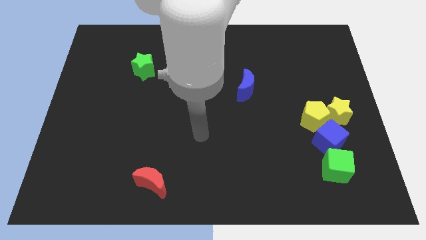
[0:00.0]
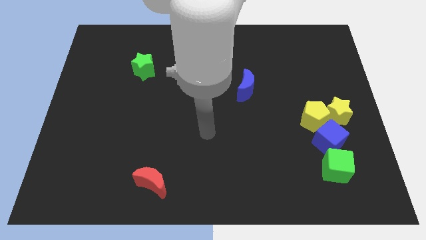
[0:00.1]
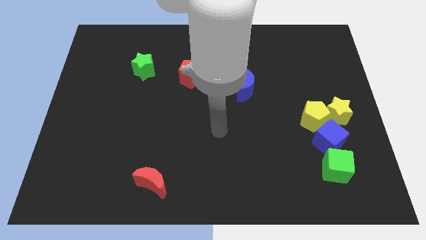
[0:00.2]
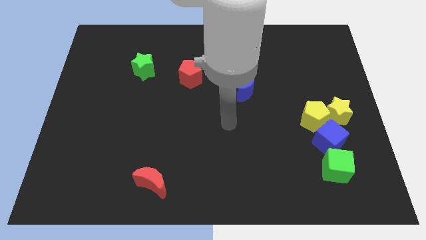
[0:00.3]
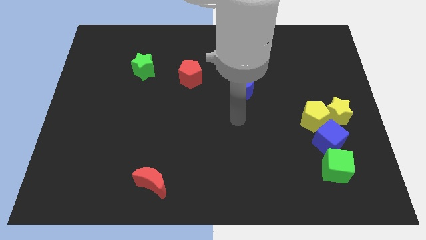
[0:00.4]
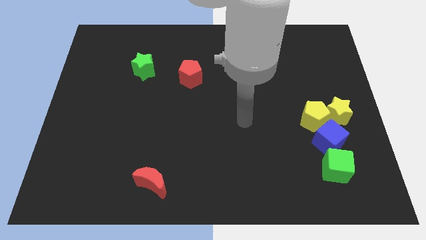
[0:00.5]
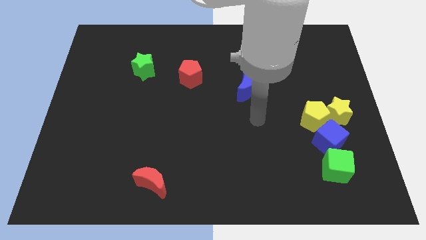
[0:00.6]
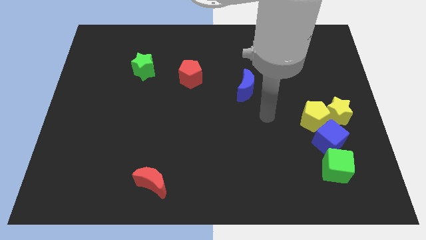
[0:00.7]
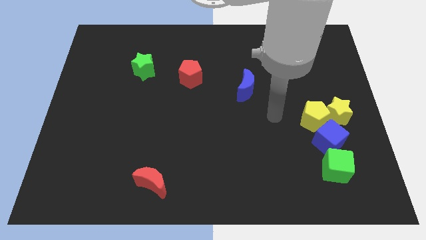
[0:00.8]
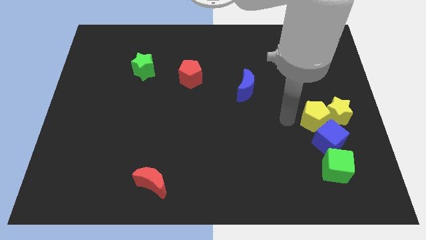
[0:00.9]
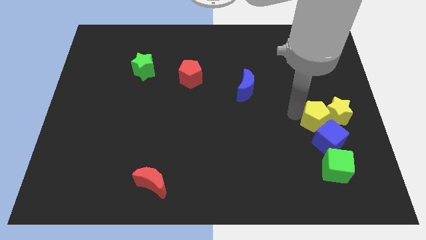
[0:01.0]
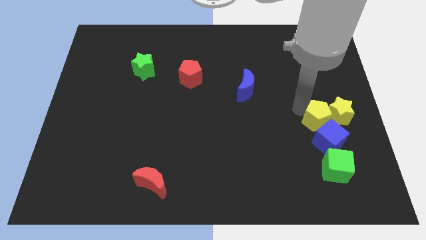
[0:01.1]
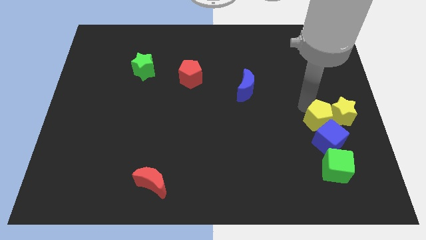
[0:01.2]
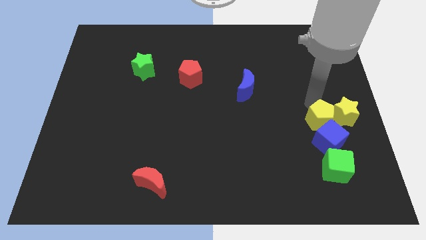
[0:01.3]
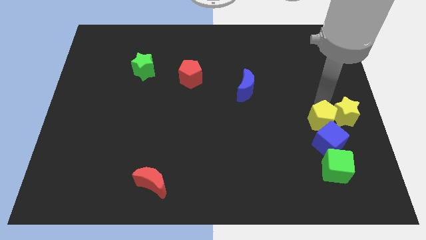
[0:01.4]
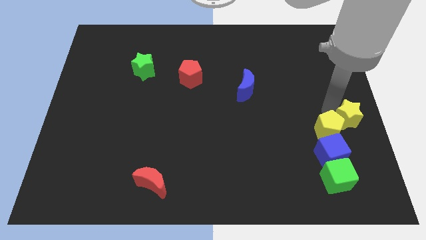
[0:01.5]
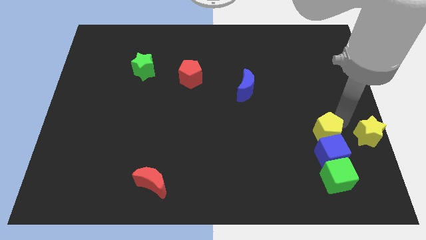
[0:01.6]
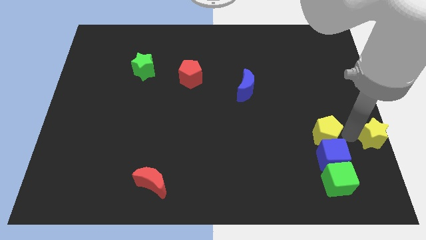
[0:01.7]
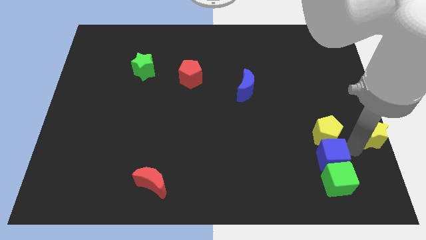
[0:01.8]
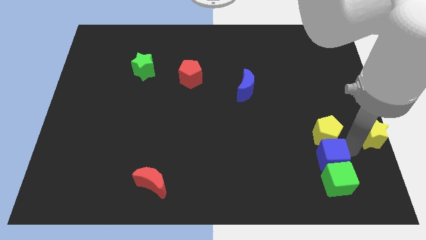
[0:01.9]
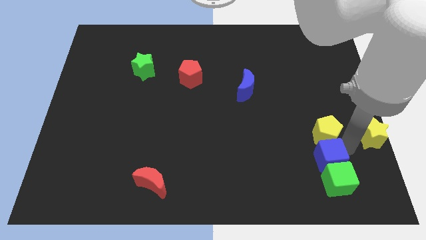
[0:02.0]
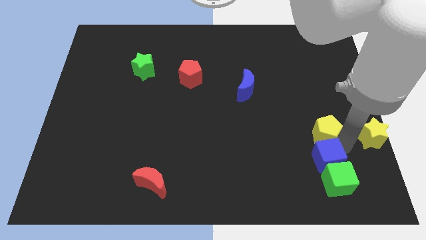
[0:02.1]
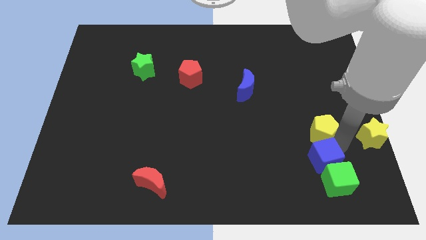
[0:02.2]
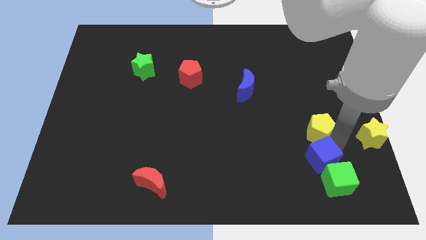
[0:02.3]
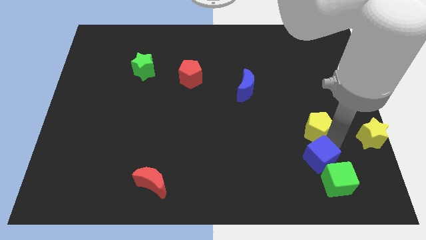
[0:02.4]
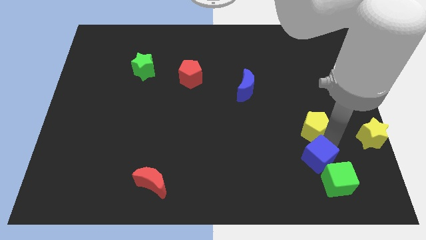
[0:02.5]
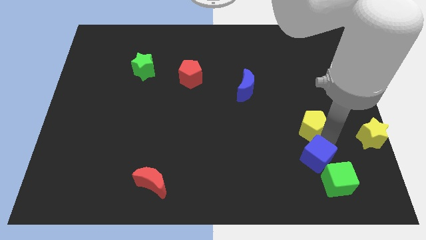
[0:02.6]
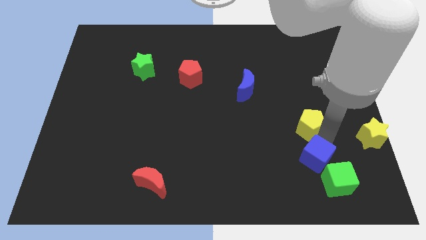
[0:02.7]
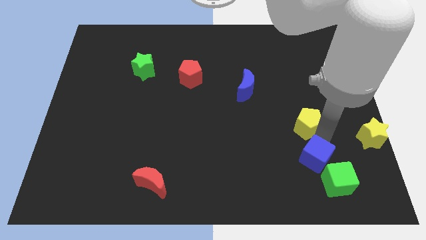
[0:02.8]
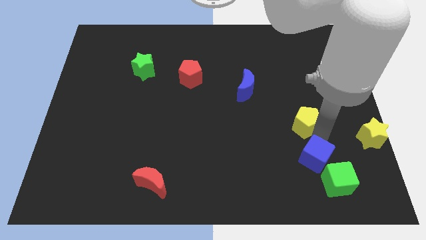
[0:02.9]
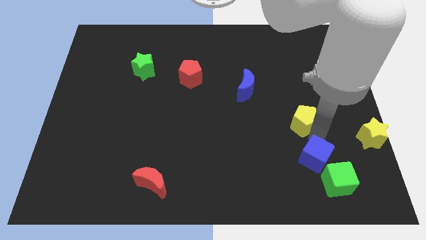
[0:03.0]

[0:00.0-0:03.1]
pull the yellow pentagon apart from the yellow star and blue cube

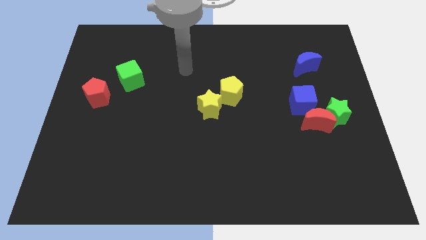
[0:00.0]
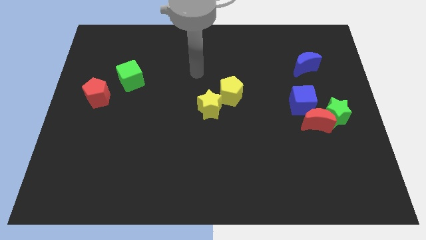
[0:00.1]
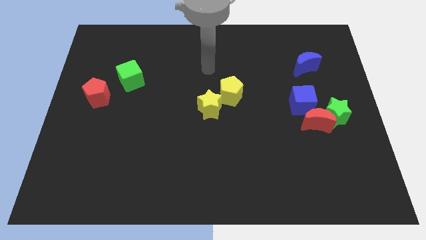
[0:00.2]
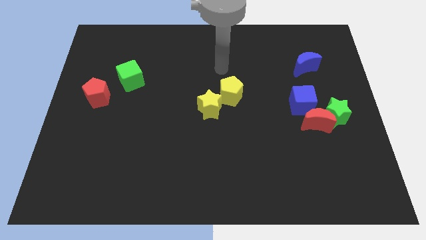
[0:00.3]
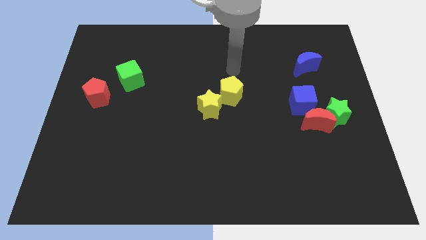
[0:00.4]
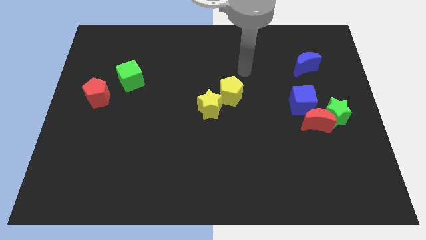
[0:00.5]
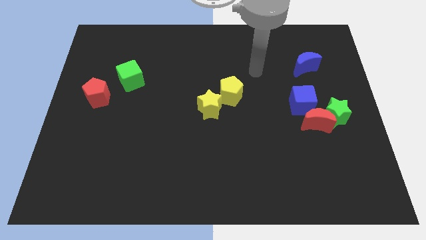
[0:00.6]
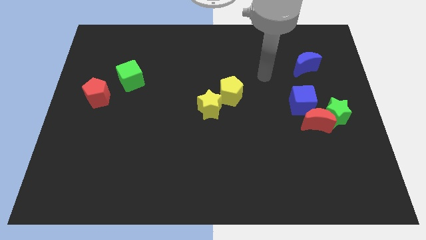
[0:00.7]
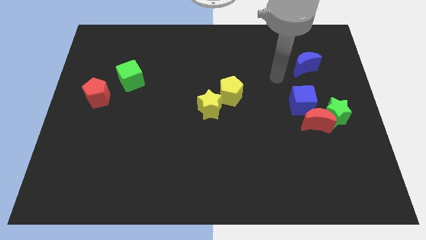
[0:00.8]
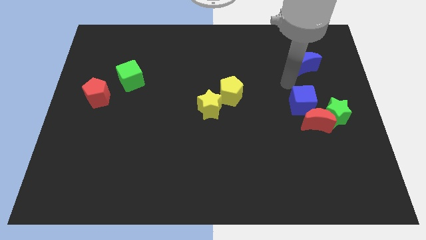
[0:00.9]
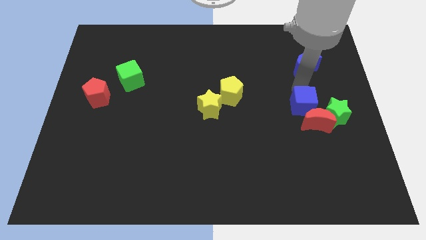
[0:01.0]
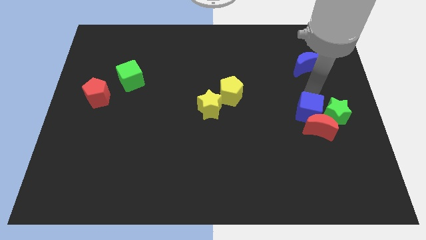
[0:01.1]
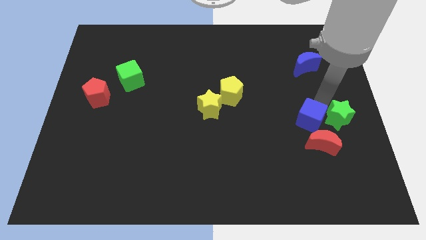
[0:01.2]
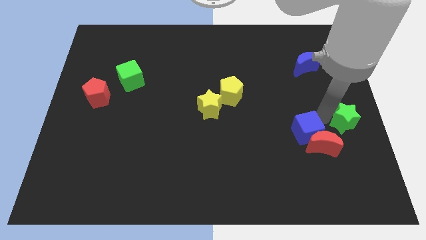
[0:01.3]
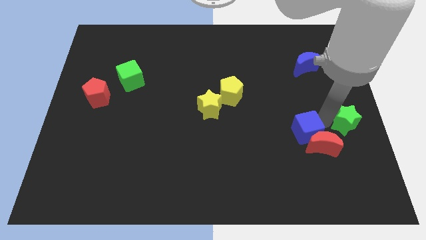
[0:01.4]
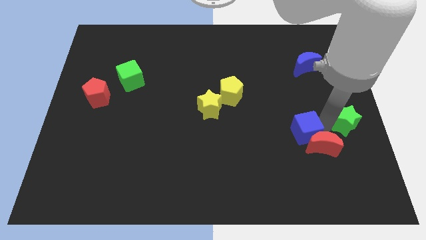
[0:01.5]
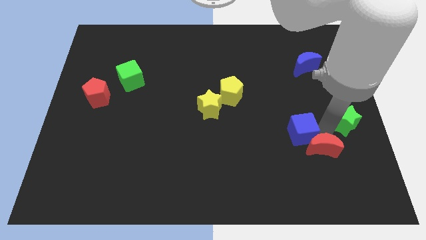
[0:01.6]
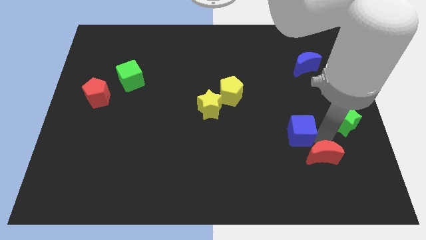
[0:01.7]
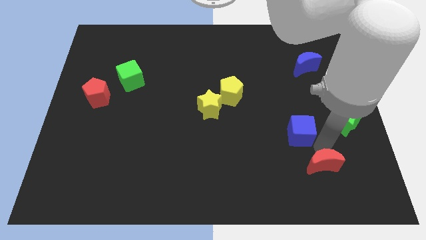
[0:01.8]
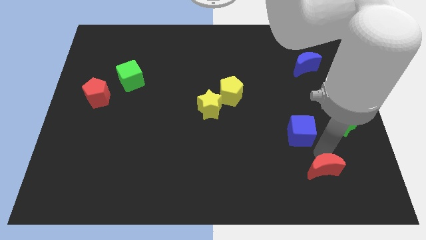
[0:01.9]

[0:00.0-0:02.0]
move the red moon away from the green star and blue cube

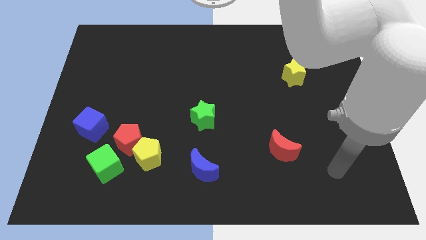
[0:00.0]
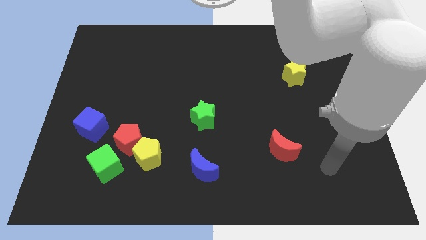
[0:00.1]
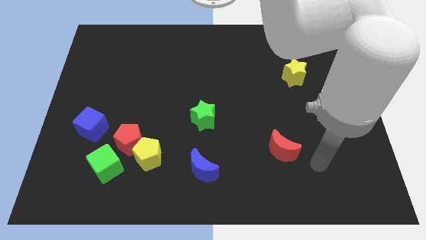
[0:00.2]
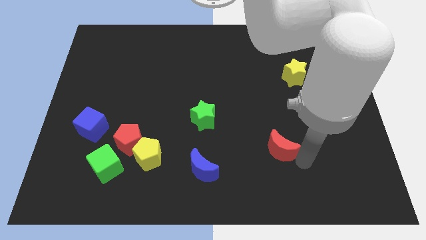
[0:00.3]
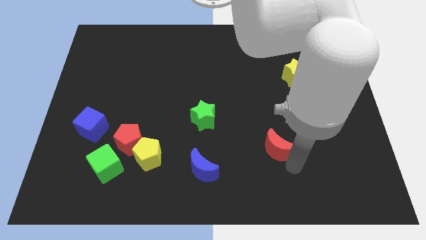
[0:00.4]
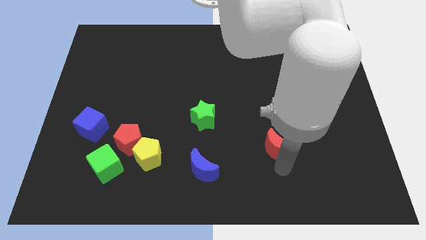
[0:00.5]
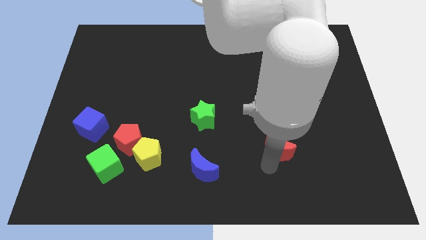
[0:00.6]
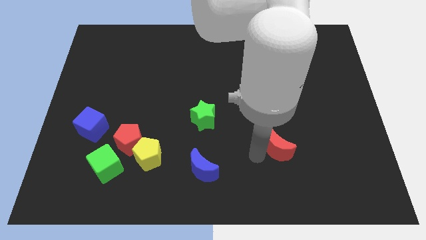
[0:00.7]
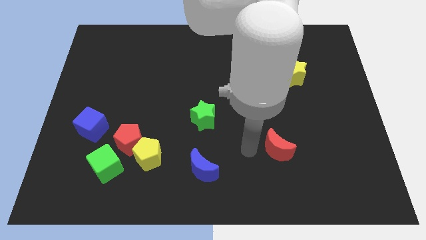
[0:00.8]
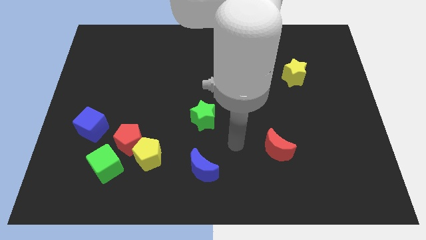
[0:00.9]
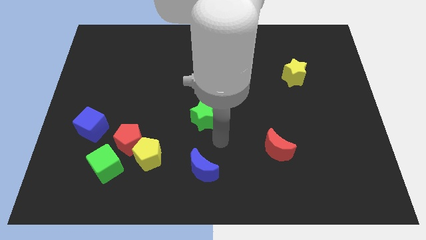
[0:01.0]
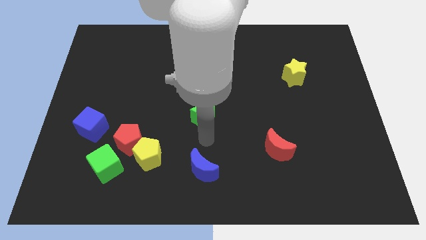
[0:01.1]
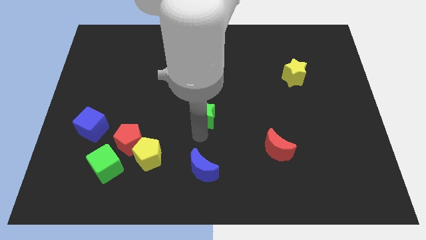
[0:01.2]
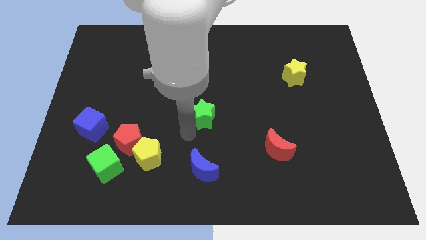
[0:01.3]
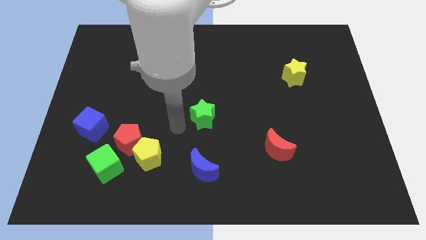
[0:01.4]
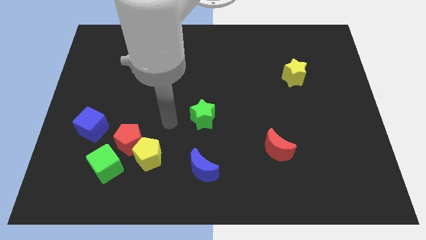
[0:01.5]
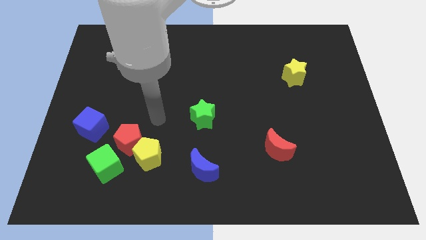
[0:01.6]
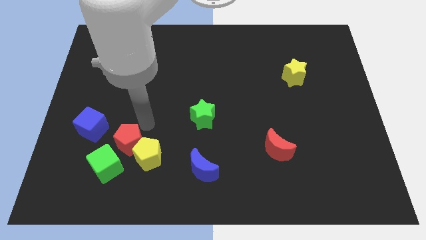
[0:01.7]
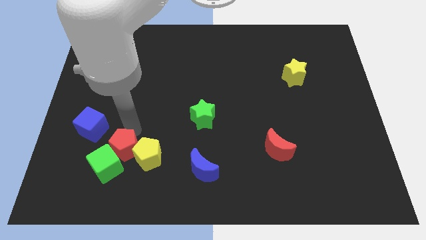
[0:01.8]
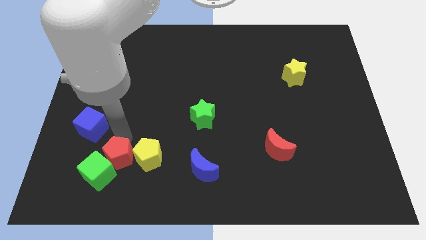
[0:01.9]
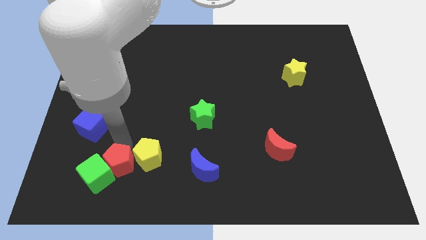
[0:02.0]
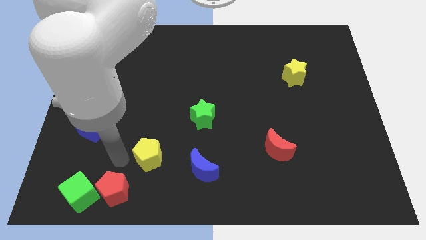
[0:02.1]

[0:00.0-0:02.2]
pull the yellow pentagon apart from the red pentagon and green cube

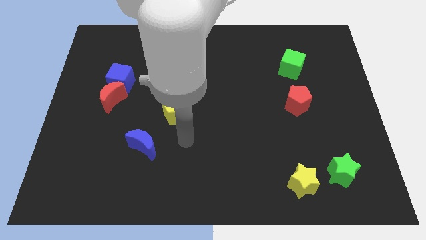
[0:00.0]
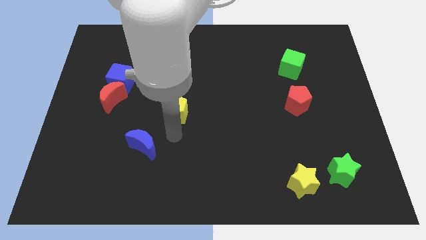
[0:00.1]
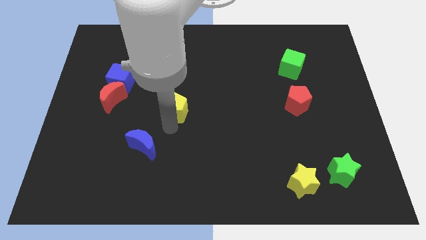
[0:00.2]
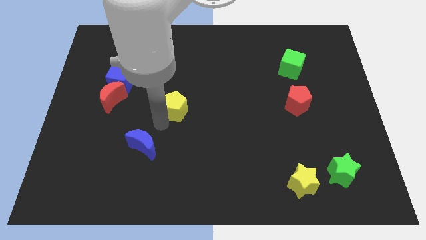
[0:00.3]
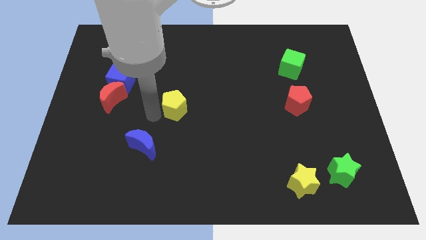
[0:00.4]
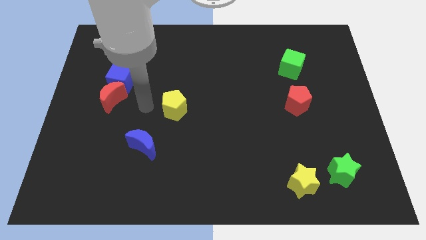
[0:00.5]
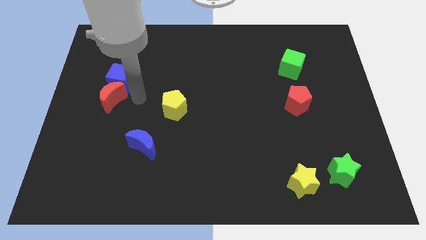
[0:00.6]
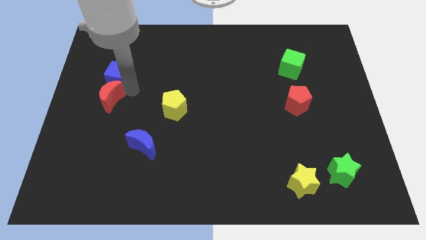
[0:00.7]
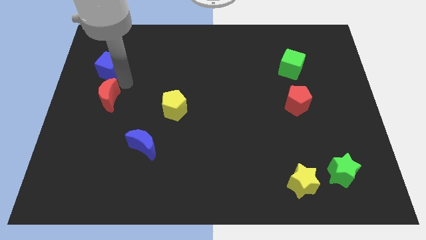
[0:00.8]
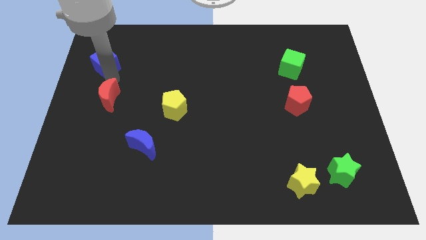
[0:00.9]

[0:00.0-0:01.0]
separate the red moon from the blue cube

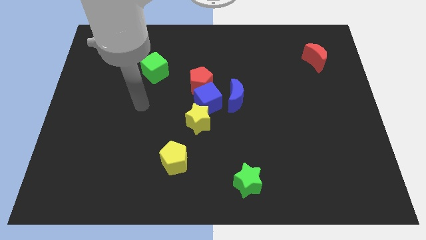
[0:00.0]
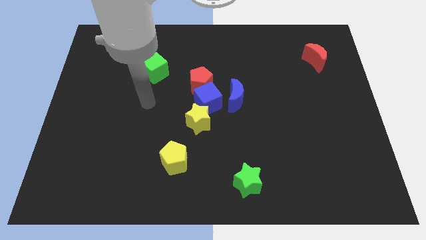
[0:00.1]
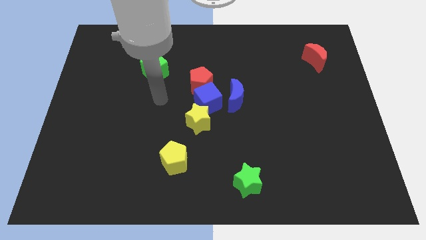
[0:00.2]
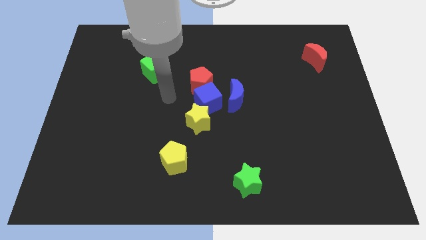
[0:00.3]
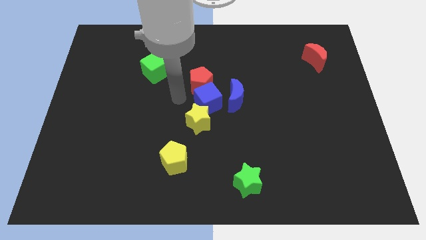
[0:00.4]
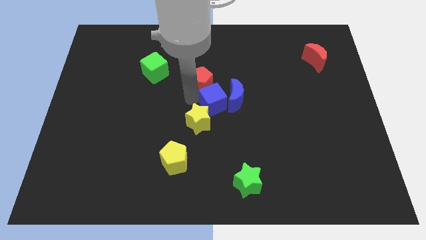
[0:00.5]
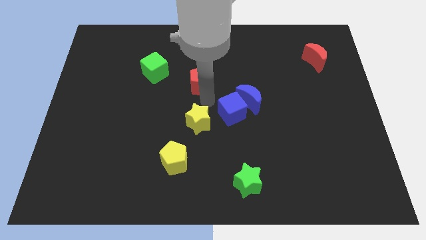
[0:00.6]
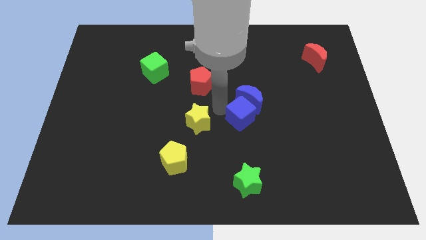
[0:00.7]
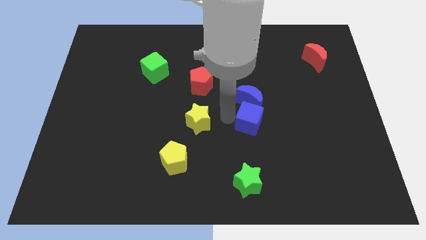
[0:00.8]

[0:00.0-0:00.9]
separate the yellow star from the blue cube

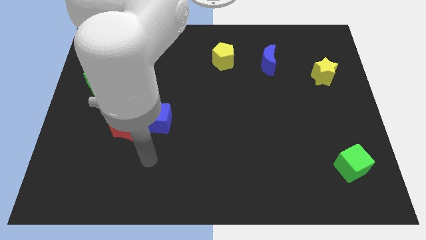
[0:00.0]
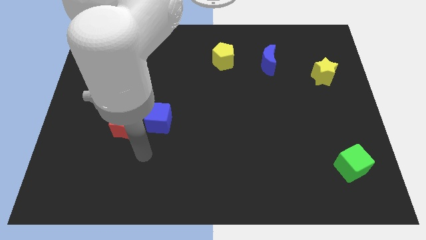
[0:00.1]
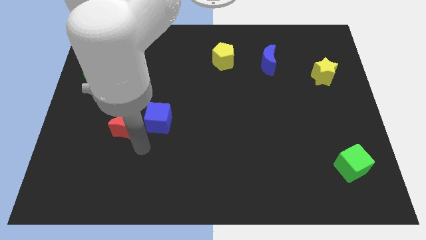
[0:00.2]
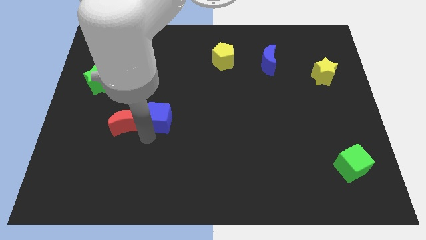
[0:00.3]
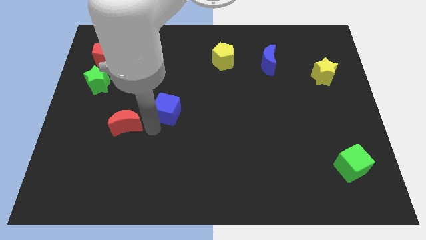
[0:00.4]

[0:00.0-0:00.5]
move the red moon away from the blue cube
